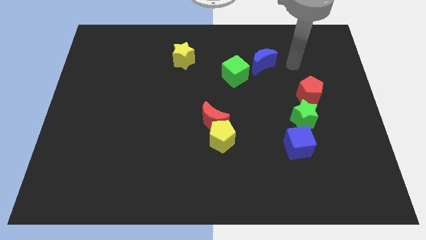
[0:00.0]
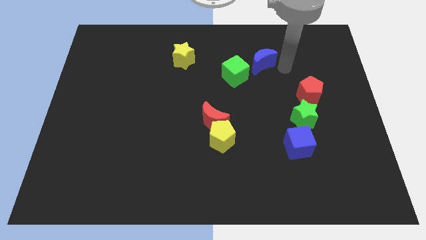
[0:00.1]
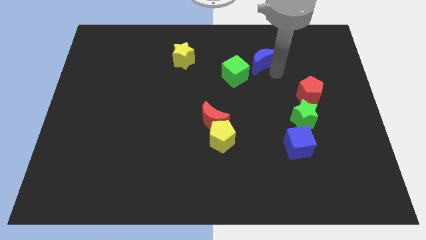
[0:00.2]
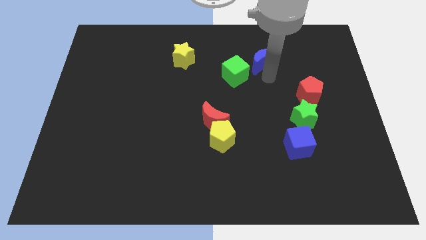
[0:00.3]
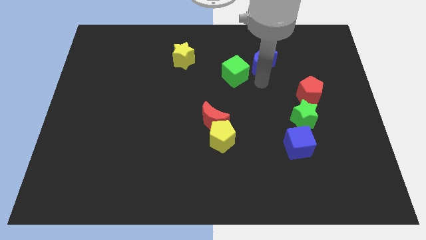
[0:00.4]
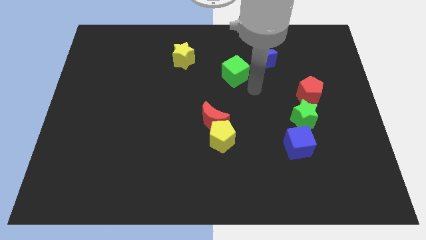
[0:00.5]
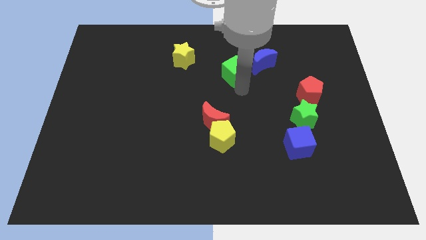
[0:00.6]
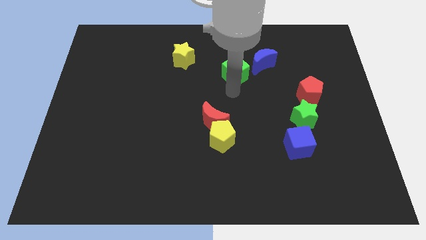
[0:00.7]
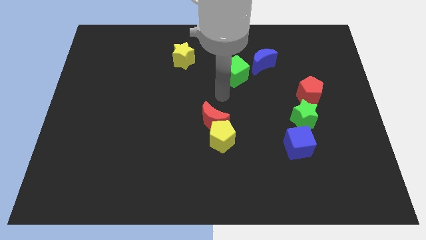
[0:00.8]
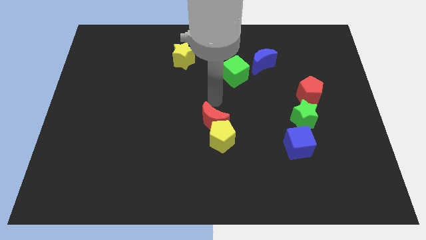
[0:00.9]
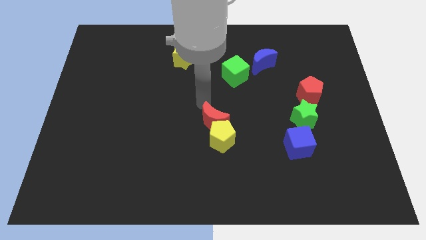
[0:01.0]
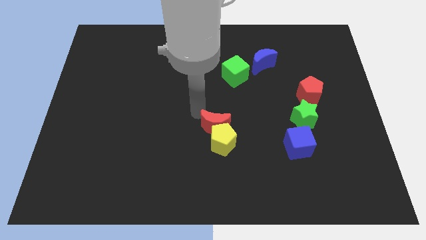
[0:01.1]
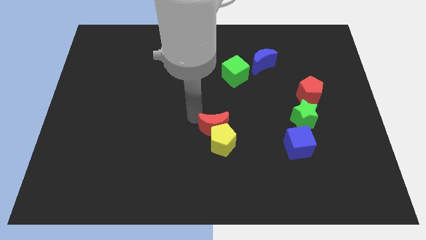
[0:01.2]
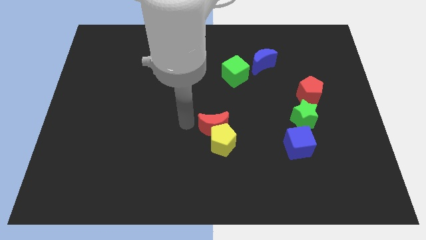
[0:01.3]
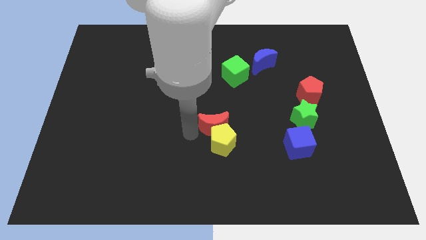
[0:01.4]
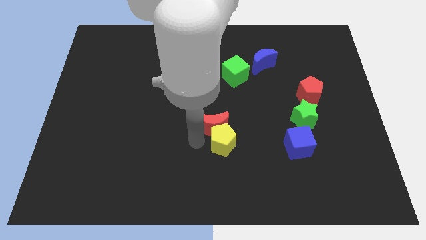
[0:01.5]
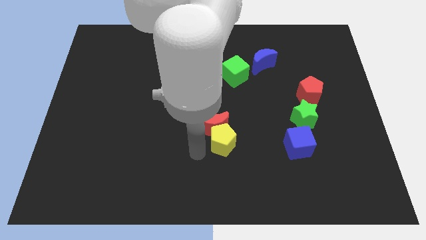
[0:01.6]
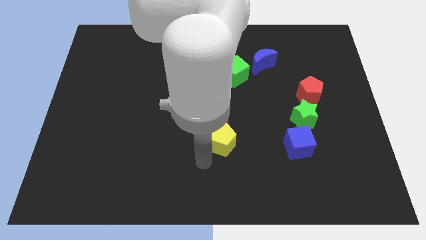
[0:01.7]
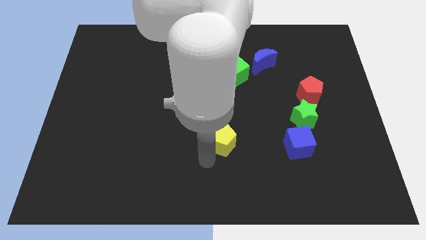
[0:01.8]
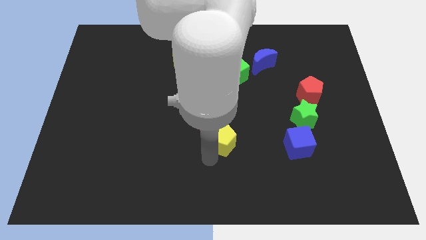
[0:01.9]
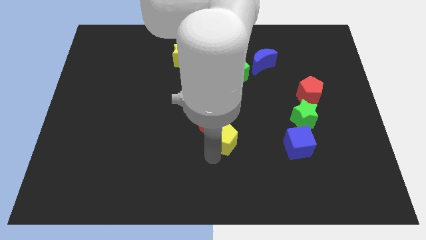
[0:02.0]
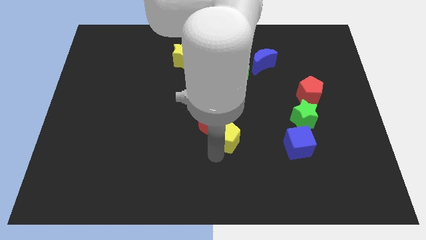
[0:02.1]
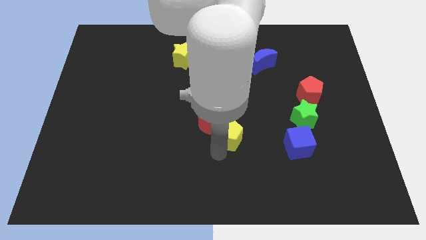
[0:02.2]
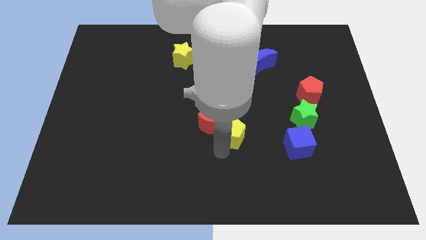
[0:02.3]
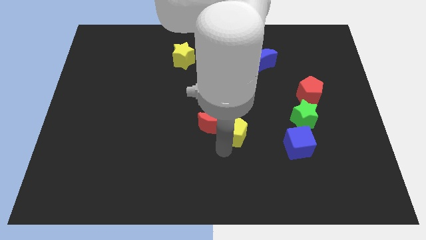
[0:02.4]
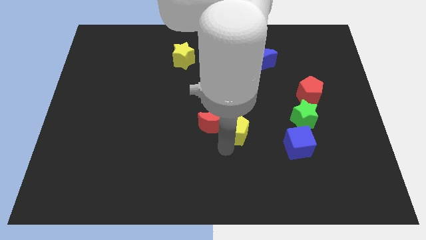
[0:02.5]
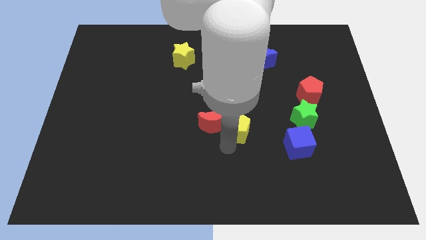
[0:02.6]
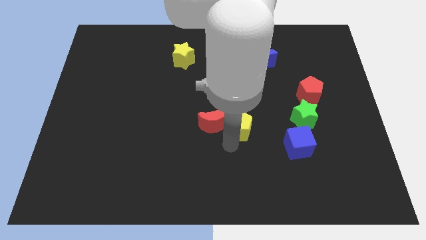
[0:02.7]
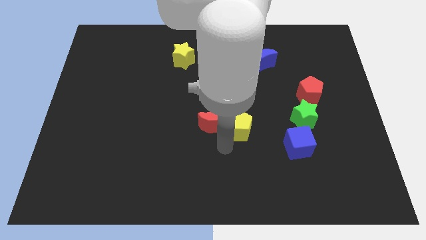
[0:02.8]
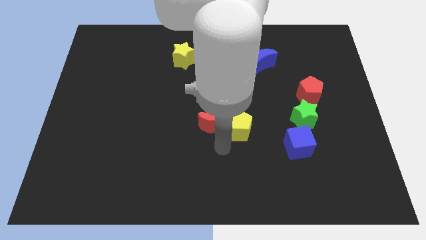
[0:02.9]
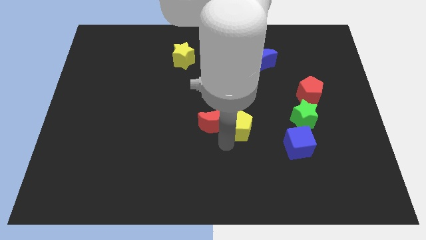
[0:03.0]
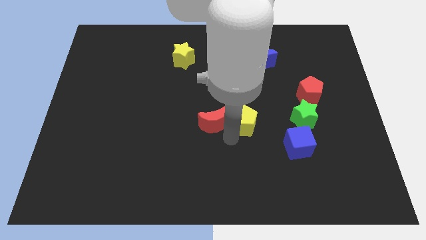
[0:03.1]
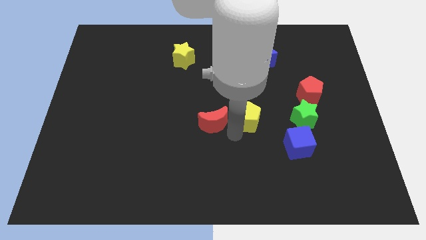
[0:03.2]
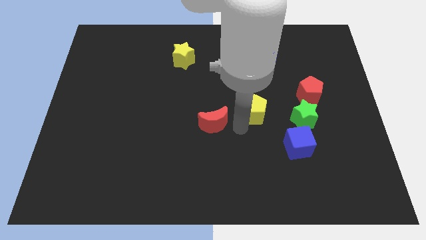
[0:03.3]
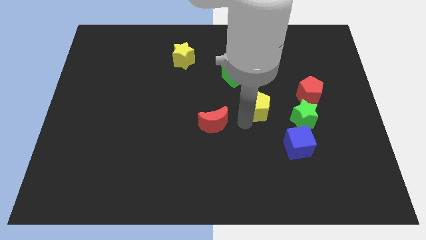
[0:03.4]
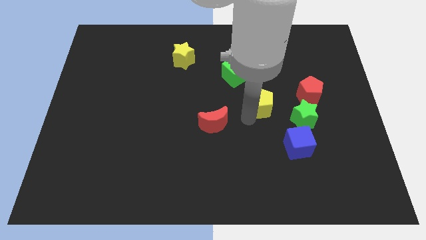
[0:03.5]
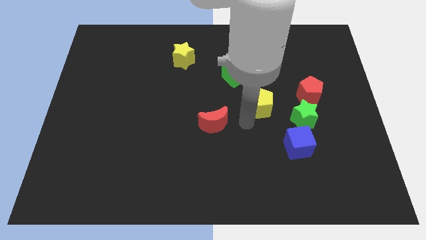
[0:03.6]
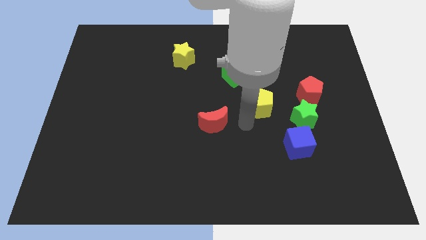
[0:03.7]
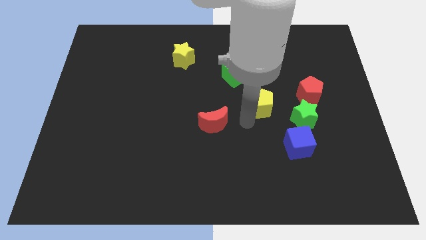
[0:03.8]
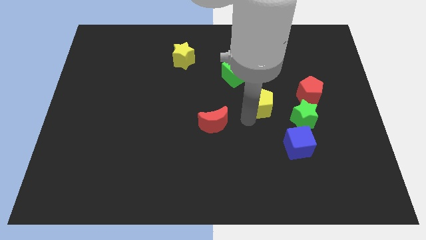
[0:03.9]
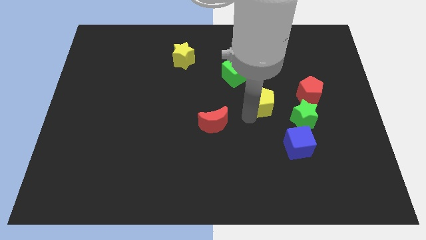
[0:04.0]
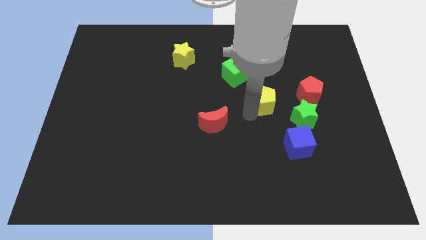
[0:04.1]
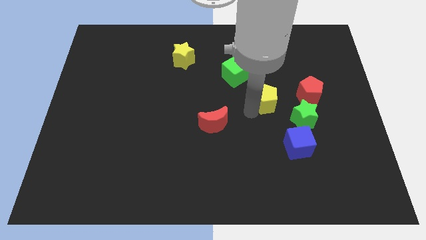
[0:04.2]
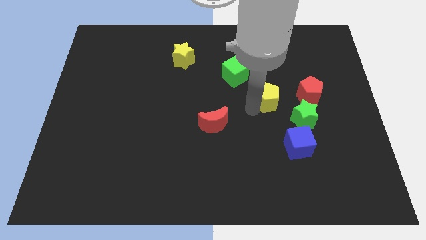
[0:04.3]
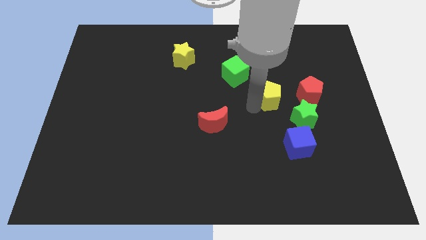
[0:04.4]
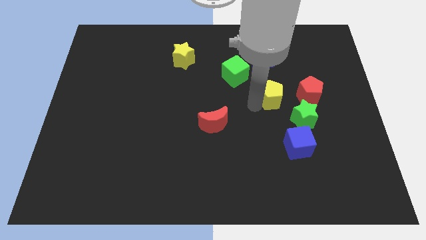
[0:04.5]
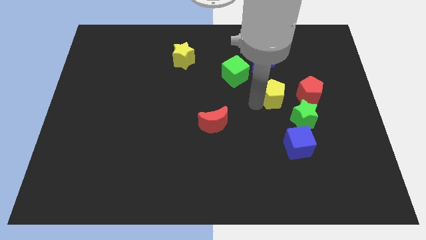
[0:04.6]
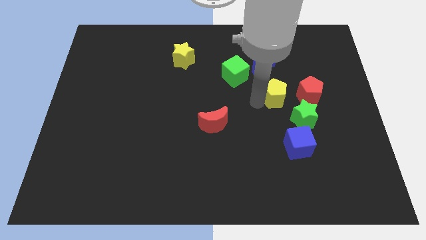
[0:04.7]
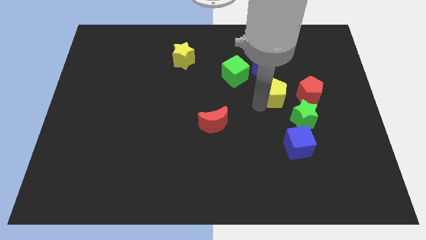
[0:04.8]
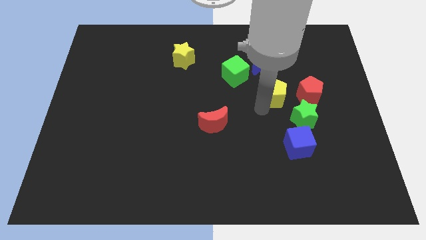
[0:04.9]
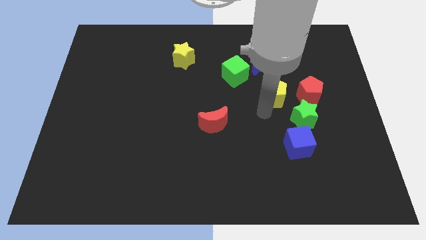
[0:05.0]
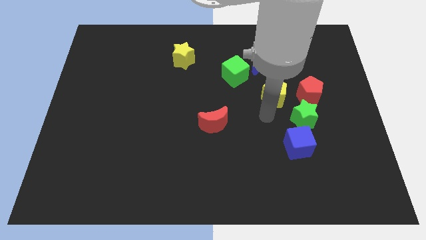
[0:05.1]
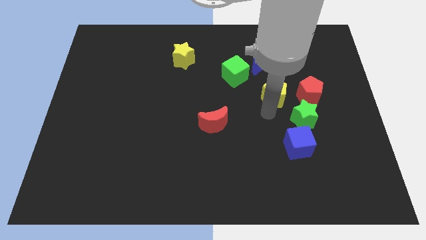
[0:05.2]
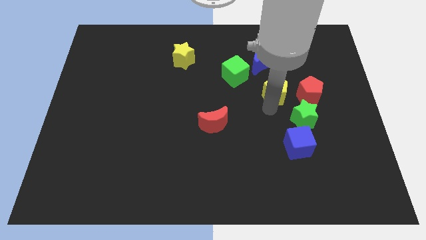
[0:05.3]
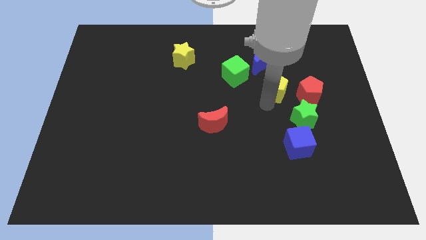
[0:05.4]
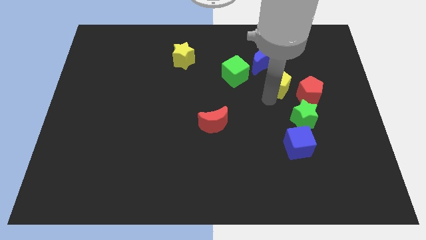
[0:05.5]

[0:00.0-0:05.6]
slide the yellow pentagon diagonally upwards and to the right

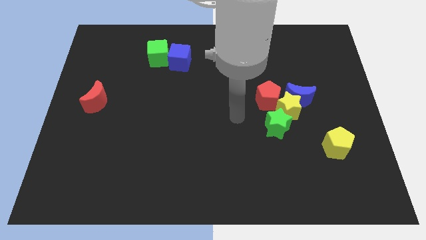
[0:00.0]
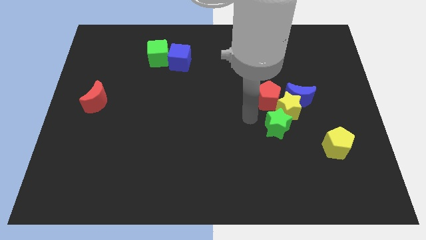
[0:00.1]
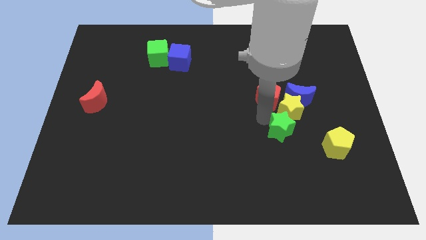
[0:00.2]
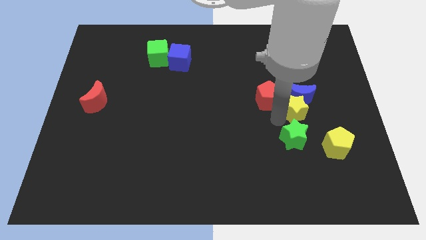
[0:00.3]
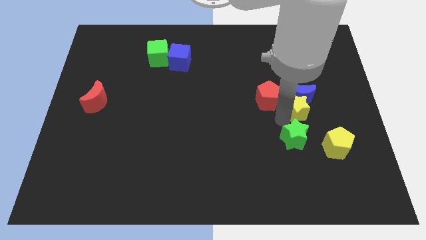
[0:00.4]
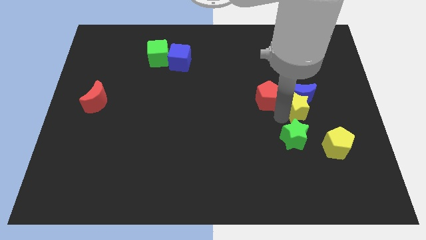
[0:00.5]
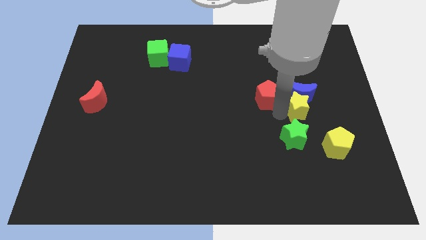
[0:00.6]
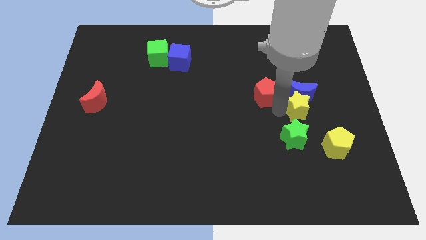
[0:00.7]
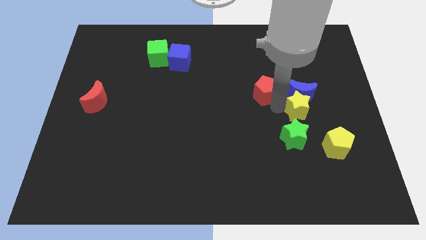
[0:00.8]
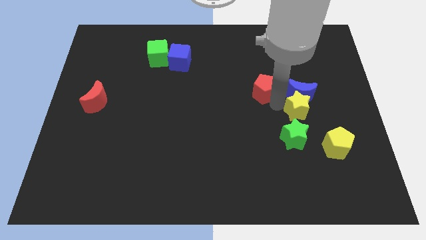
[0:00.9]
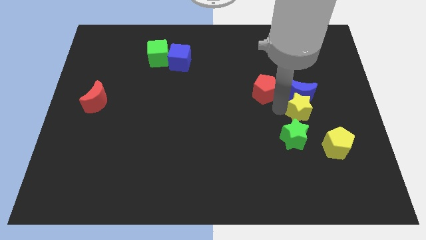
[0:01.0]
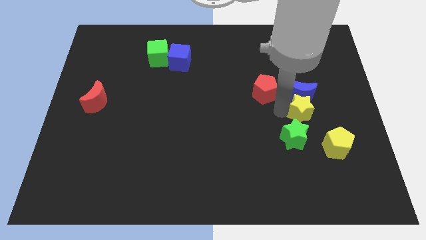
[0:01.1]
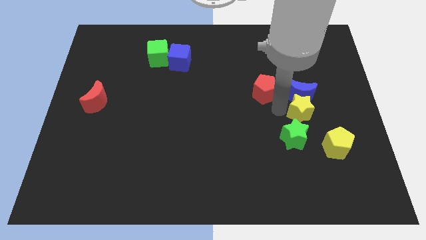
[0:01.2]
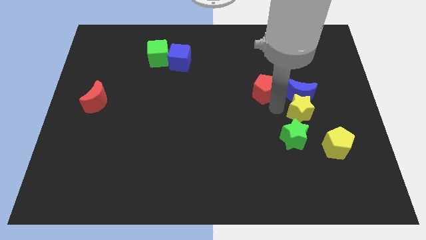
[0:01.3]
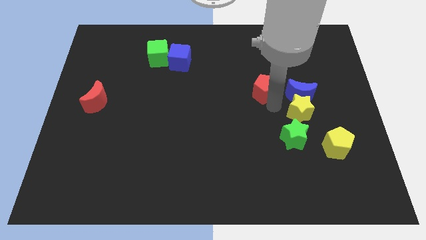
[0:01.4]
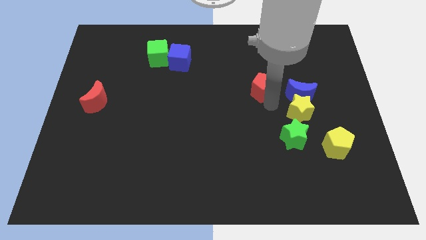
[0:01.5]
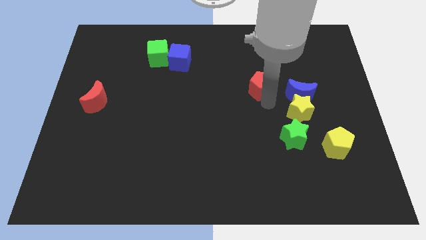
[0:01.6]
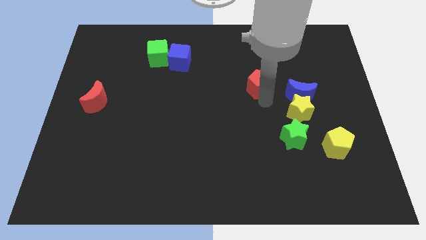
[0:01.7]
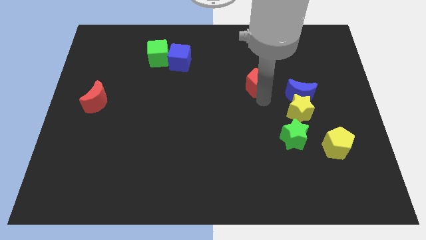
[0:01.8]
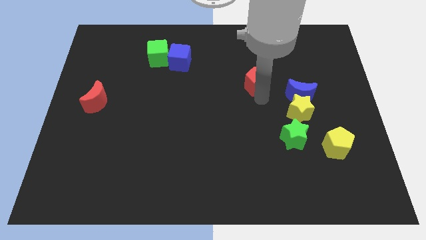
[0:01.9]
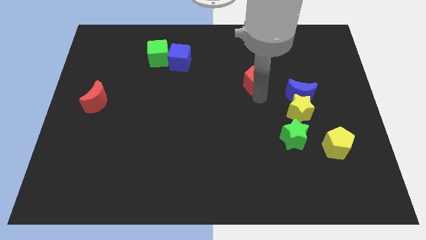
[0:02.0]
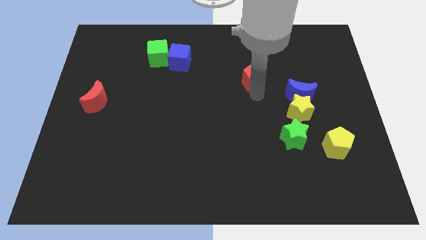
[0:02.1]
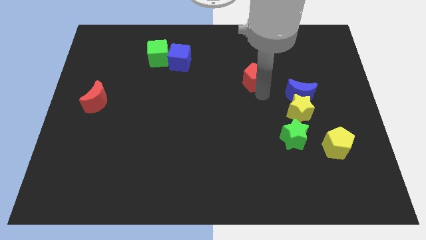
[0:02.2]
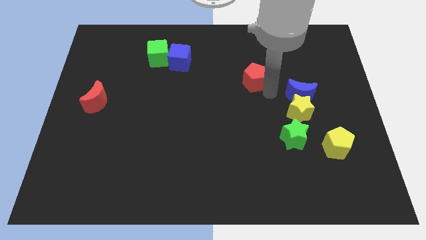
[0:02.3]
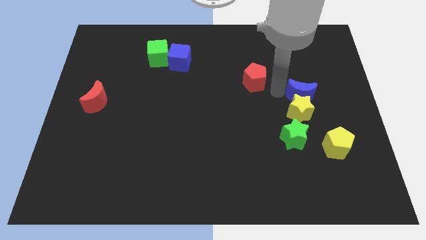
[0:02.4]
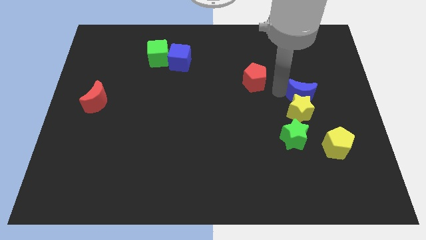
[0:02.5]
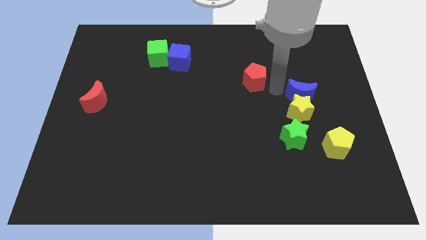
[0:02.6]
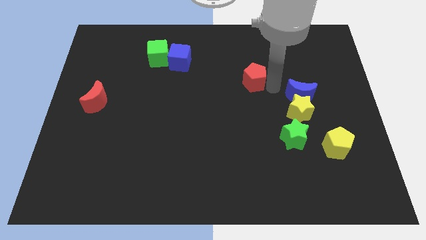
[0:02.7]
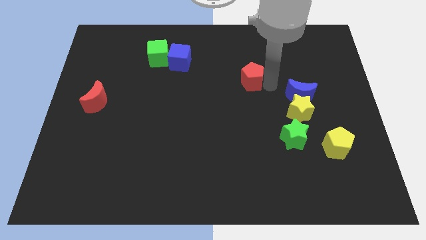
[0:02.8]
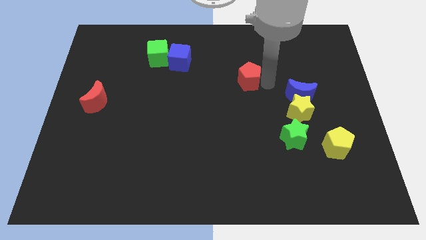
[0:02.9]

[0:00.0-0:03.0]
slightly push the red pentagon diagonally up and left
